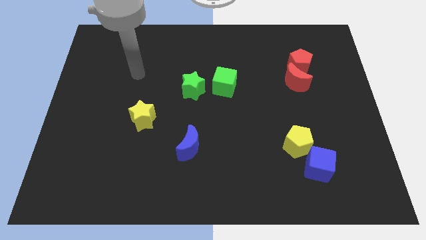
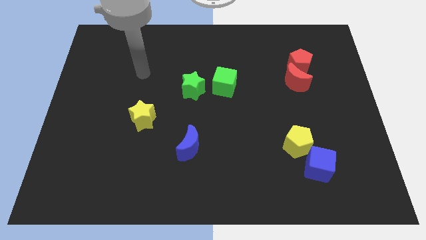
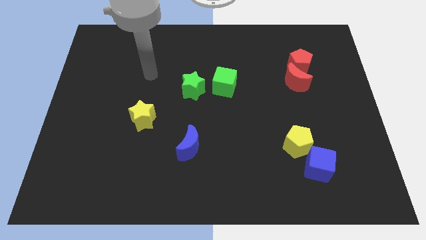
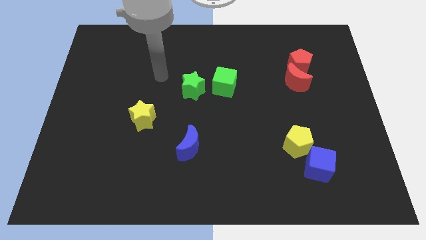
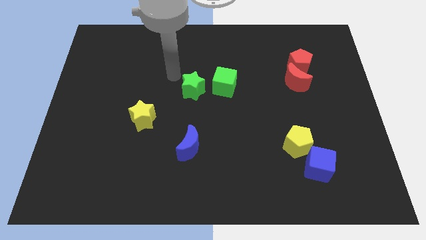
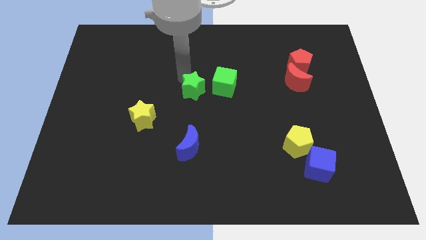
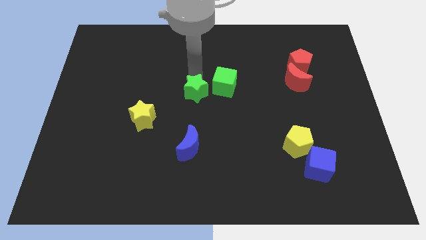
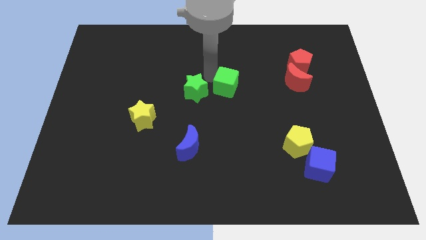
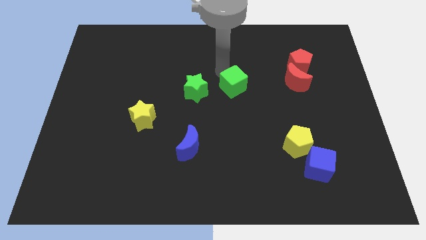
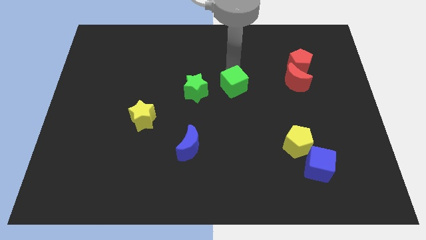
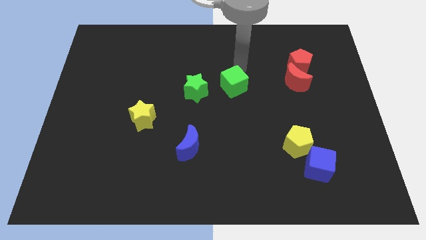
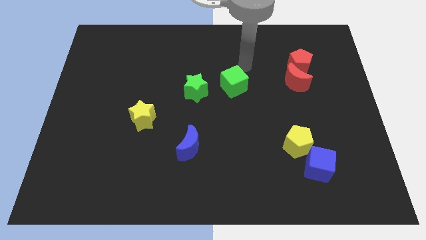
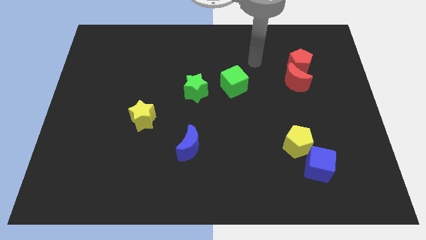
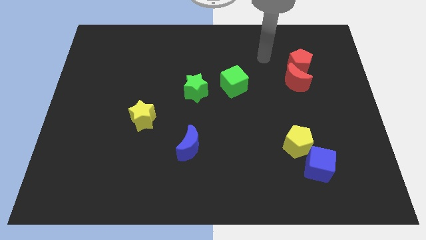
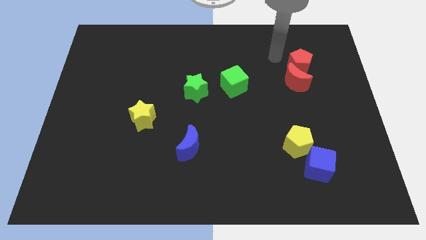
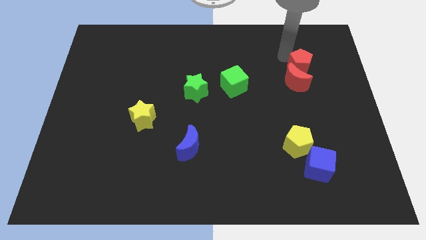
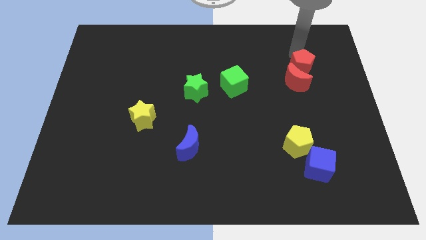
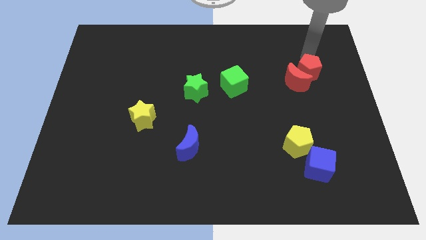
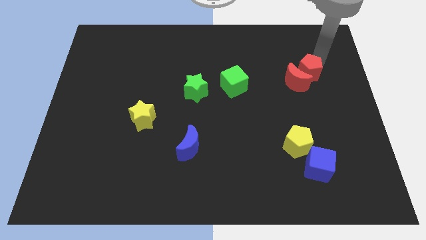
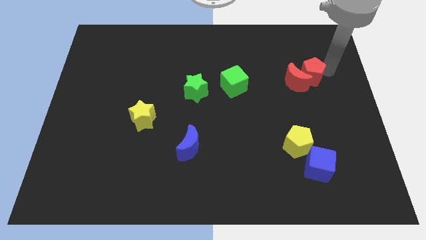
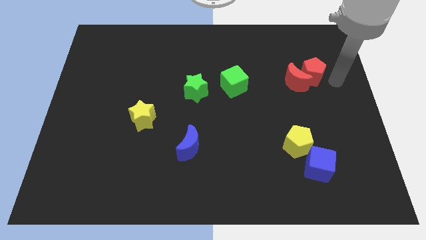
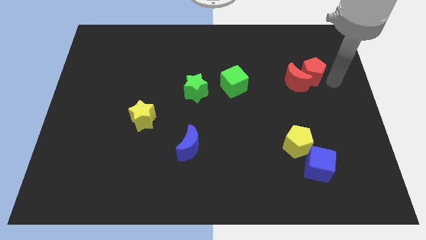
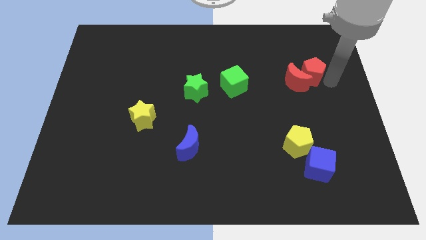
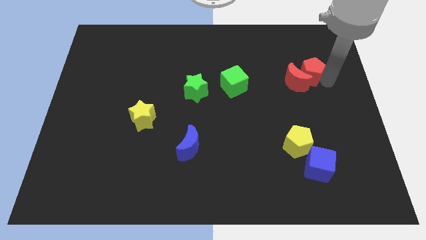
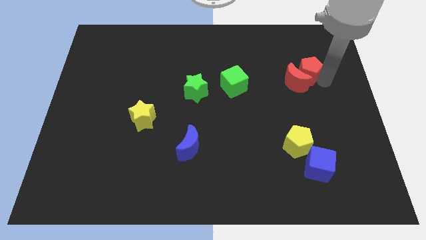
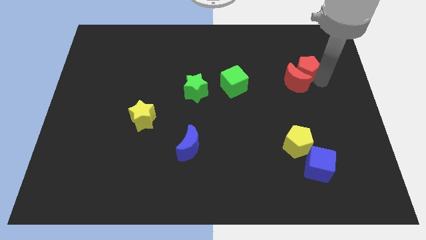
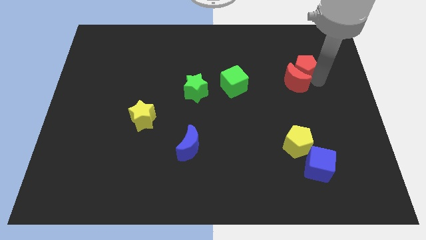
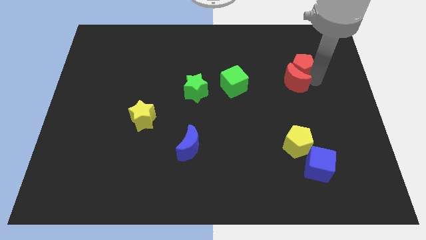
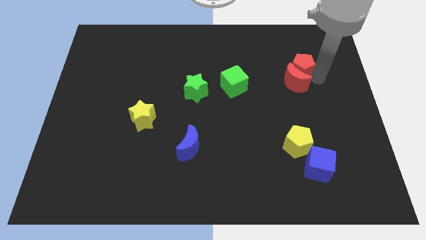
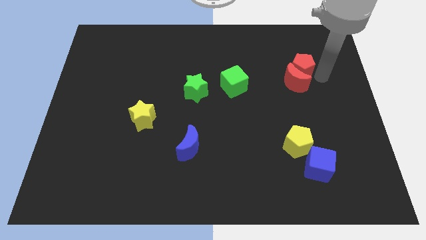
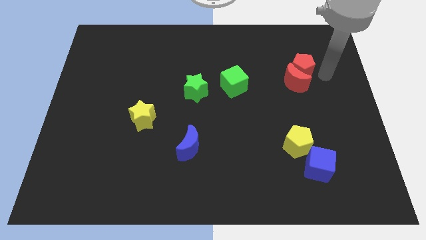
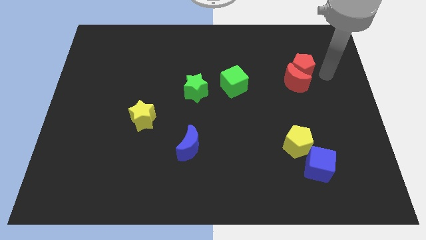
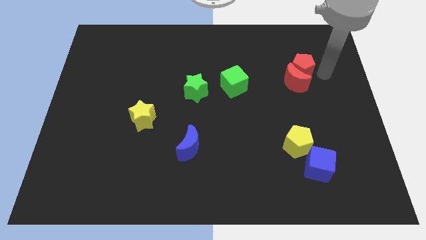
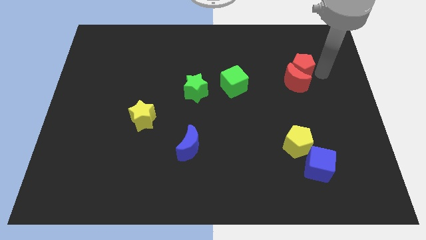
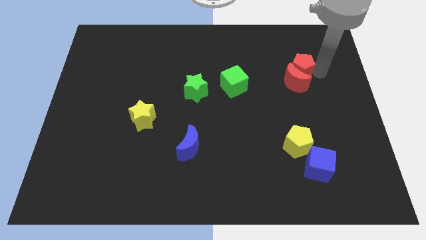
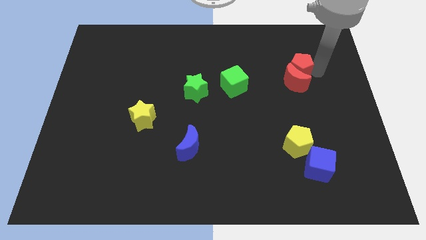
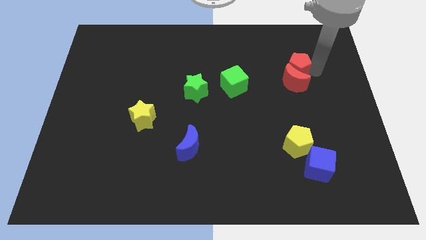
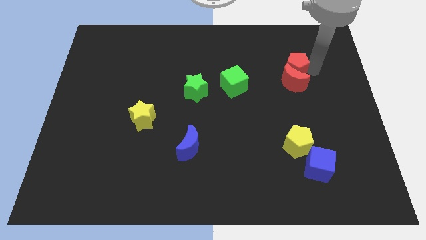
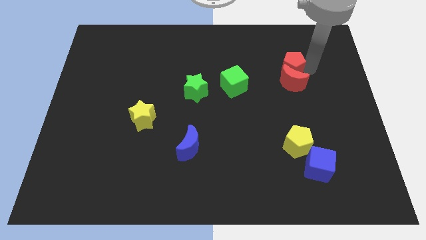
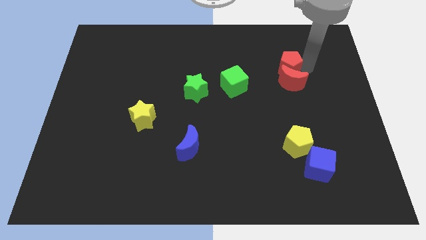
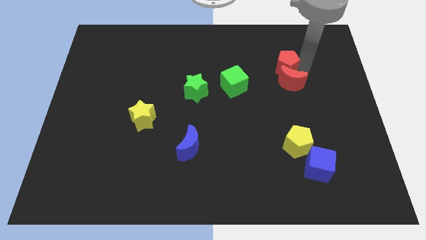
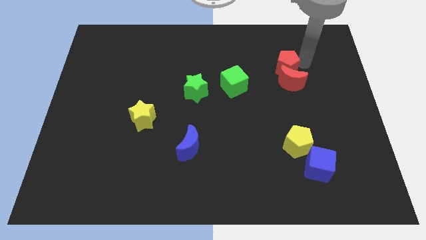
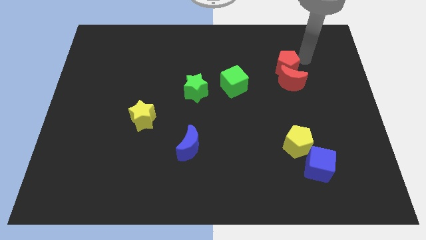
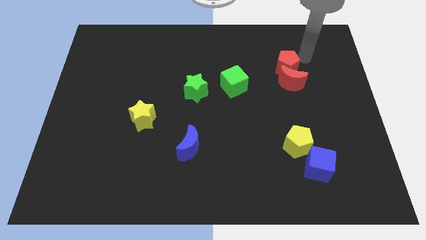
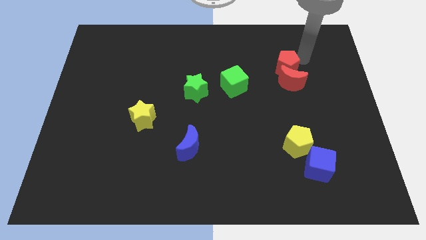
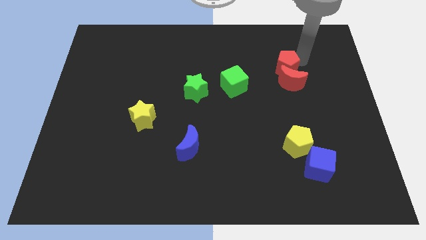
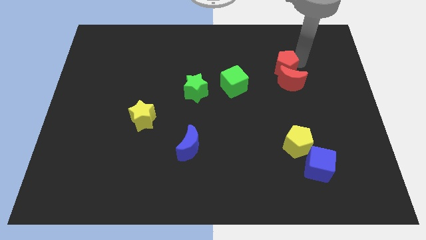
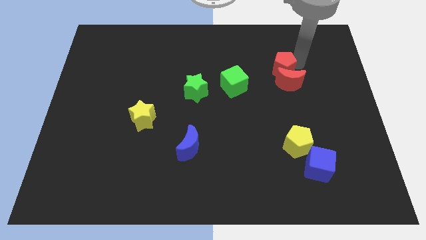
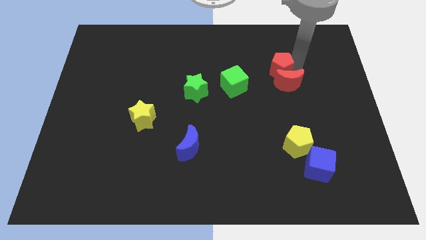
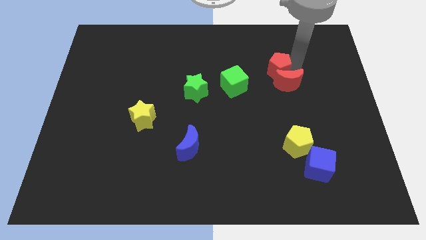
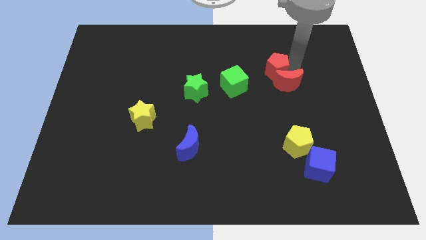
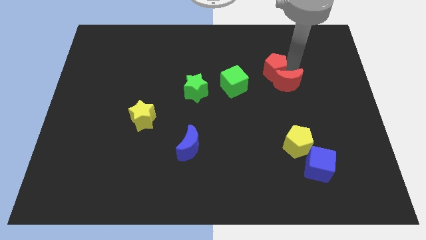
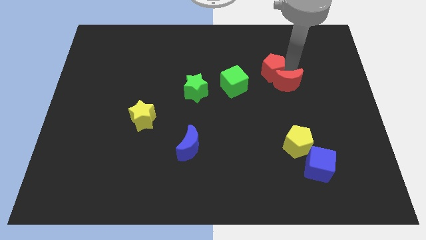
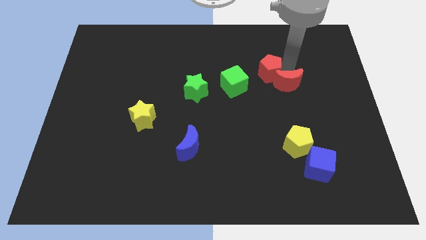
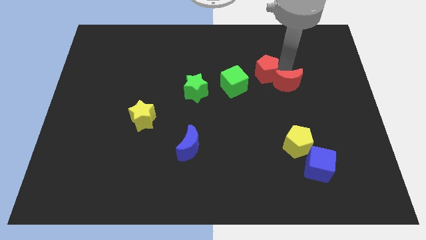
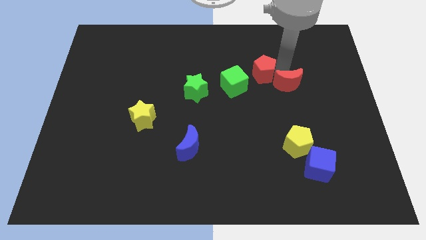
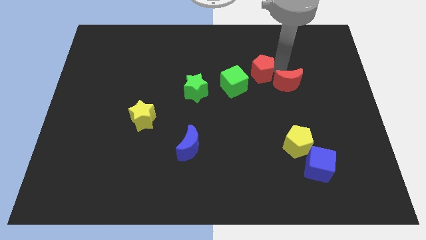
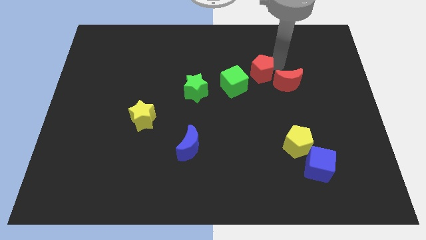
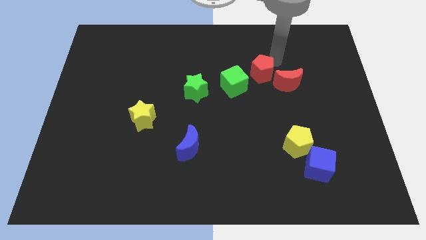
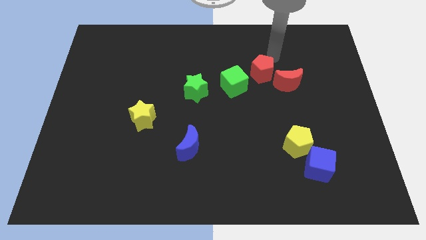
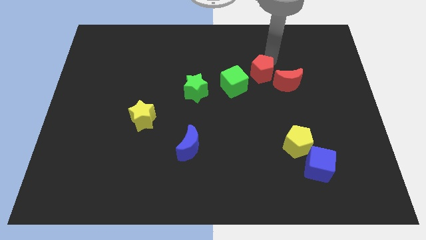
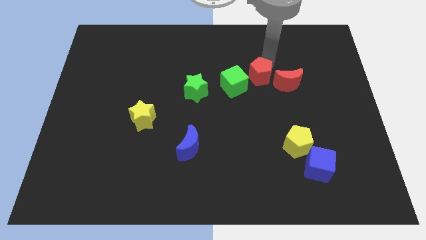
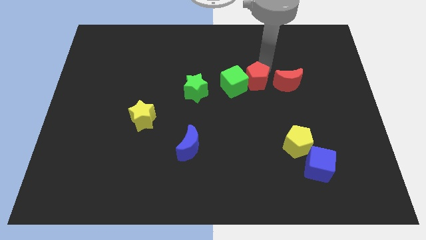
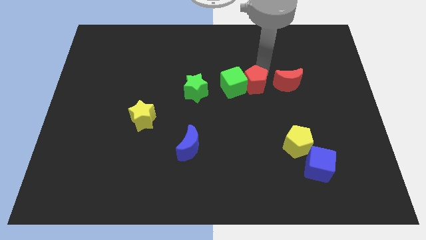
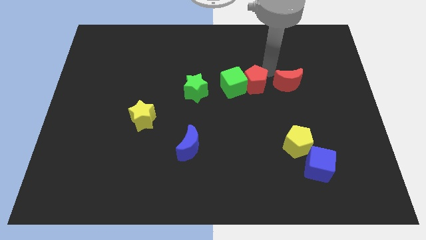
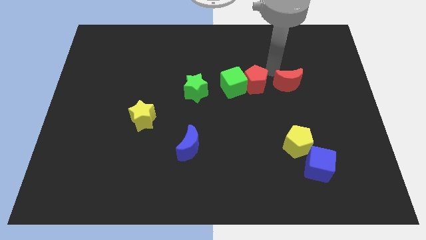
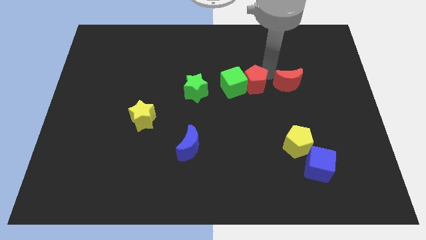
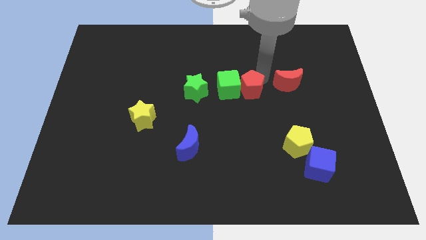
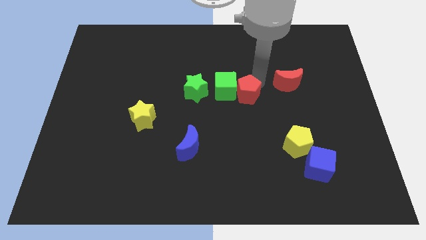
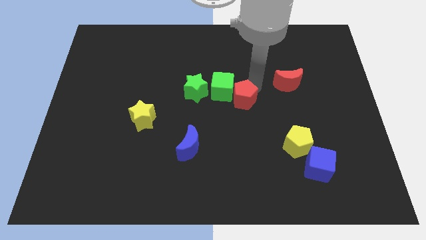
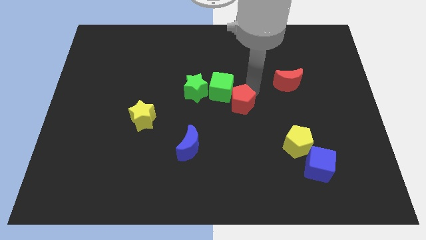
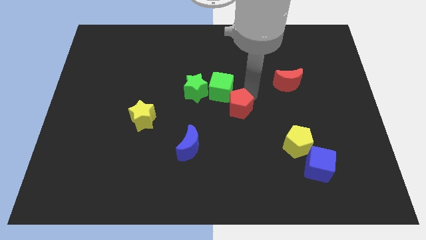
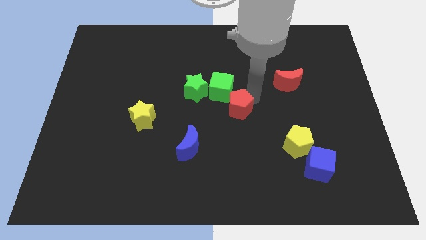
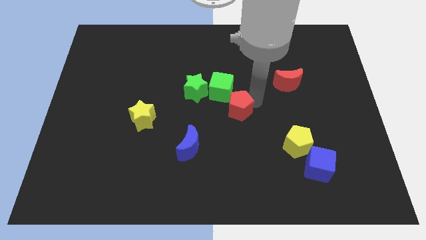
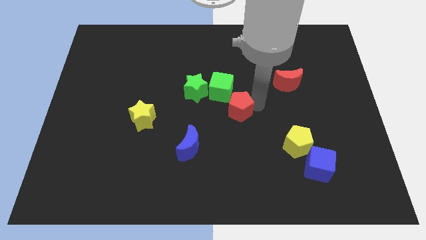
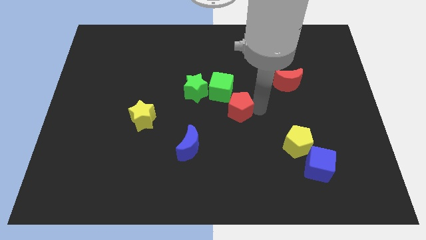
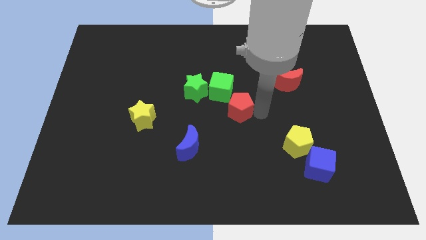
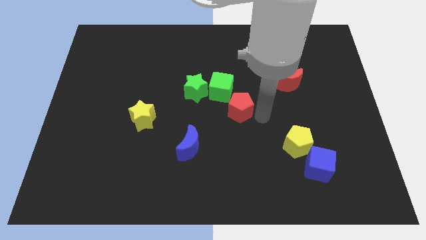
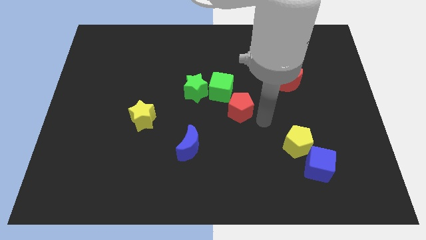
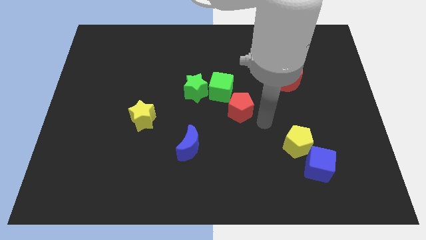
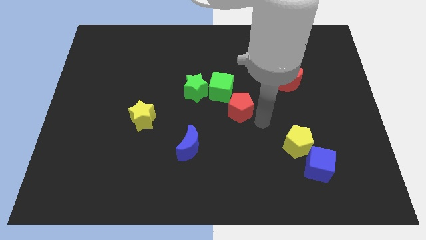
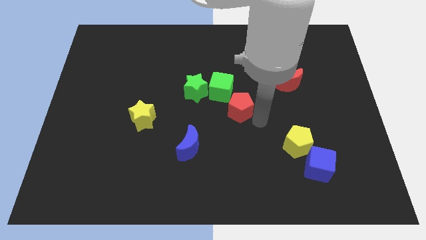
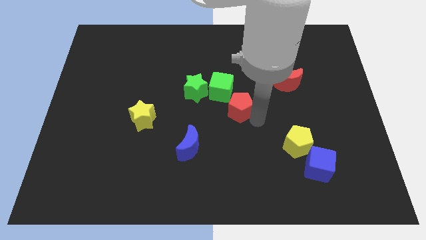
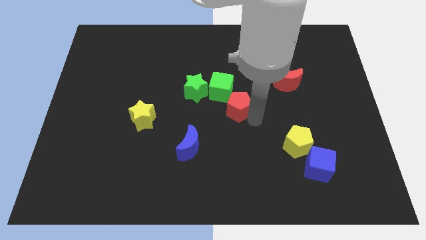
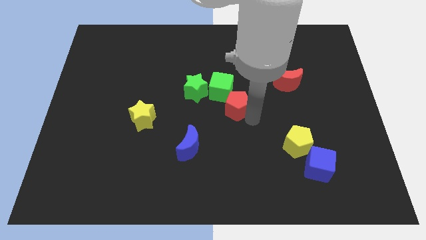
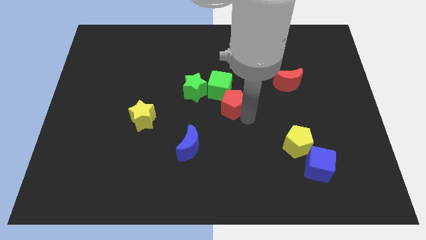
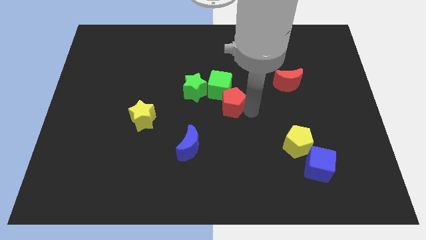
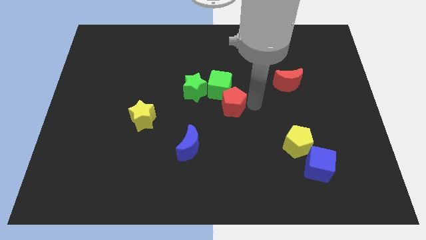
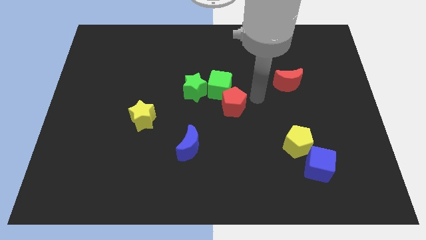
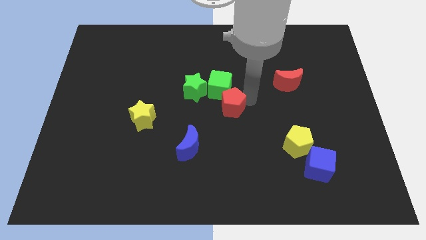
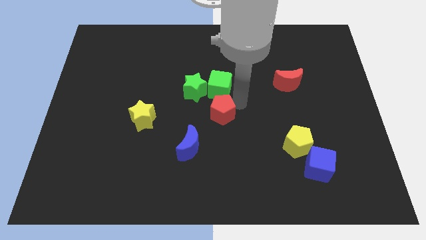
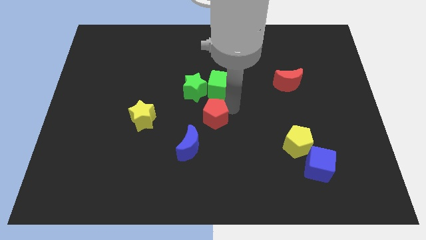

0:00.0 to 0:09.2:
slide the red pentagon to the right of the yellow star
